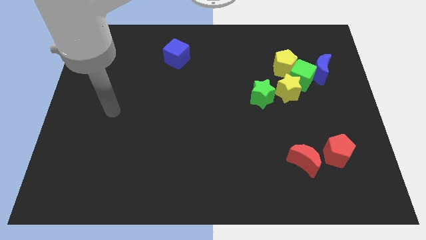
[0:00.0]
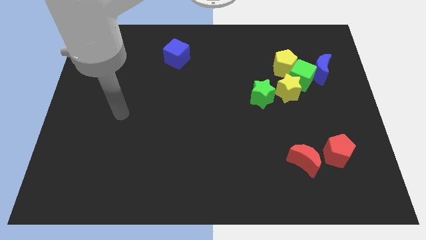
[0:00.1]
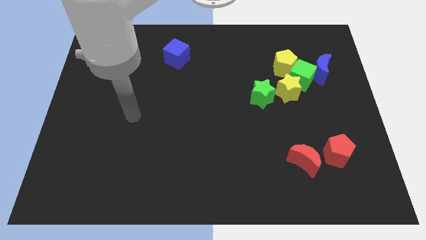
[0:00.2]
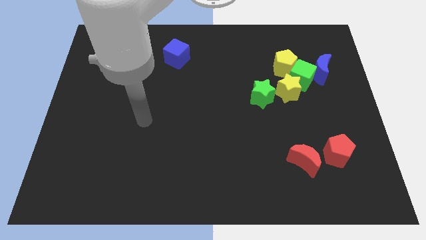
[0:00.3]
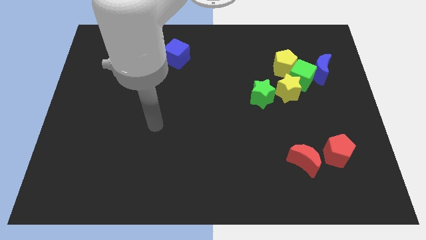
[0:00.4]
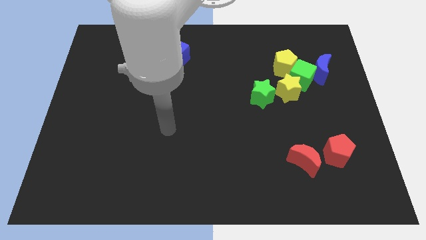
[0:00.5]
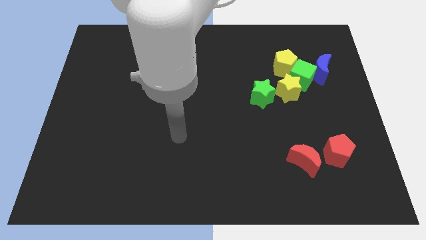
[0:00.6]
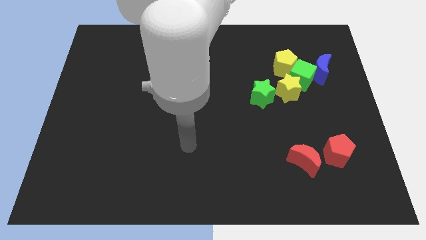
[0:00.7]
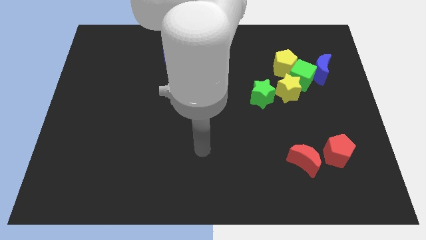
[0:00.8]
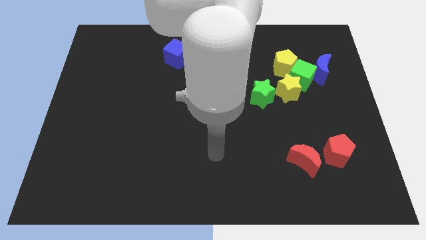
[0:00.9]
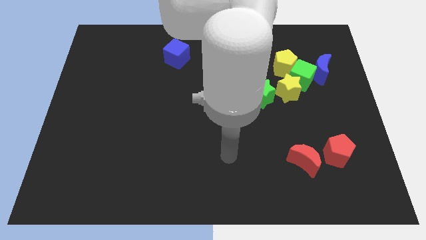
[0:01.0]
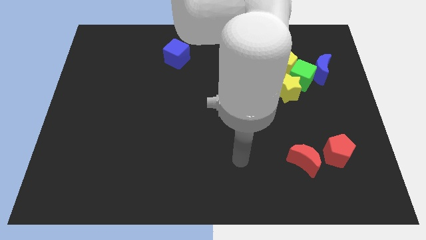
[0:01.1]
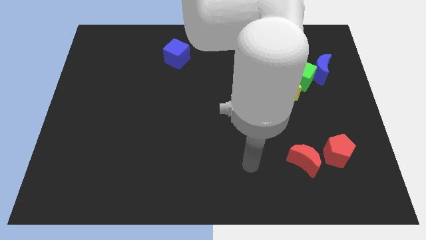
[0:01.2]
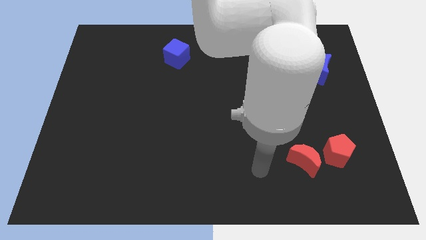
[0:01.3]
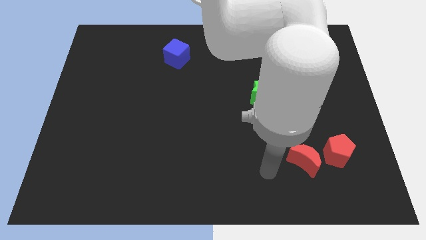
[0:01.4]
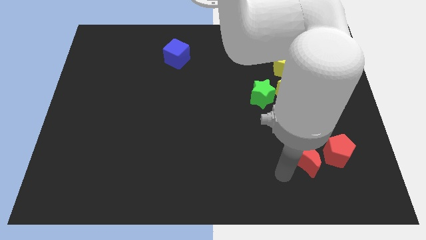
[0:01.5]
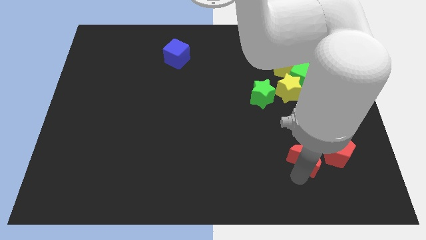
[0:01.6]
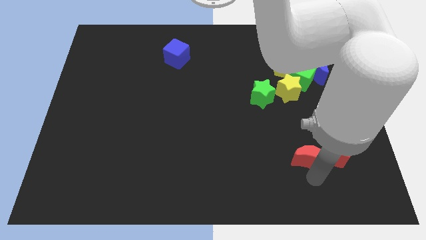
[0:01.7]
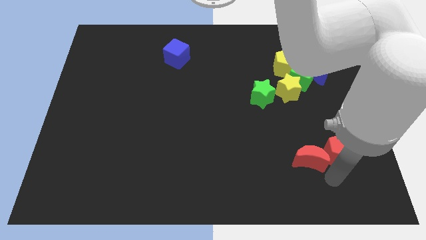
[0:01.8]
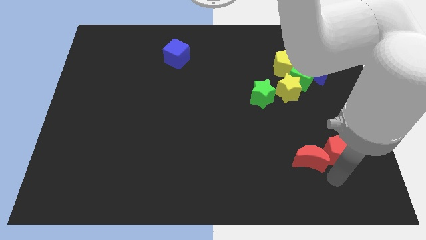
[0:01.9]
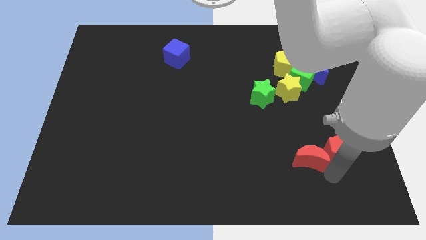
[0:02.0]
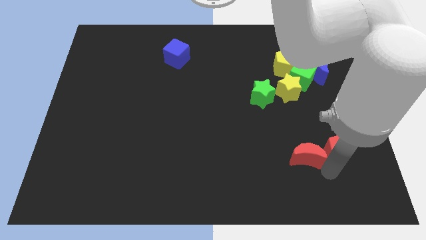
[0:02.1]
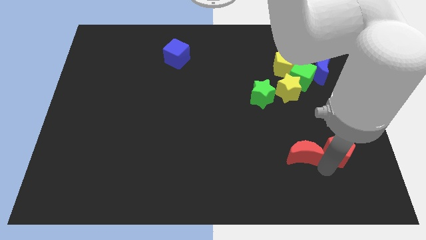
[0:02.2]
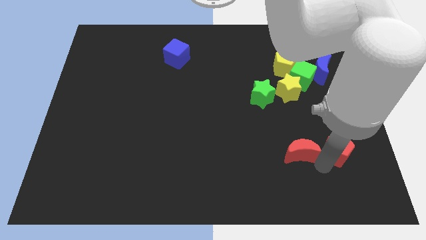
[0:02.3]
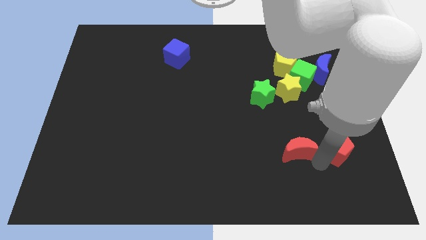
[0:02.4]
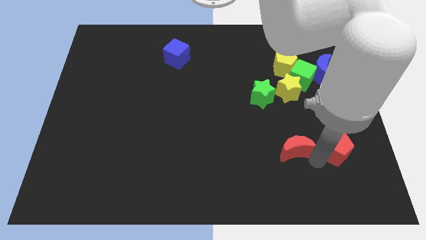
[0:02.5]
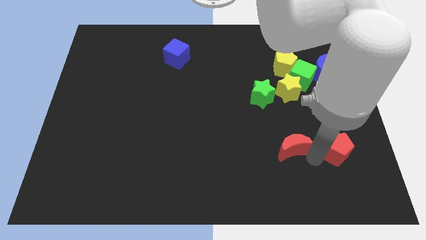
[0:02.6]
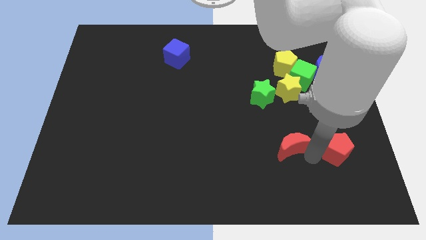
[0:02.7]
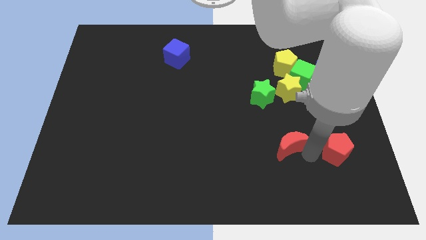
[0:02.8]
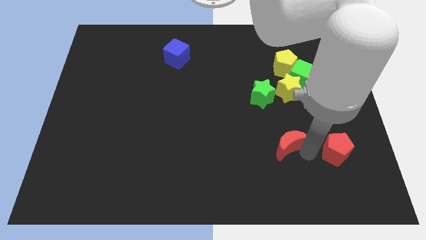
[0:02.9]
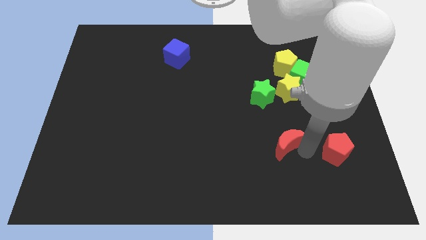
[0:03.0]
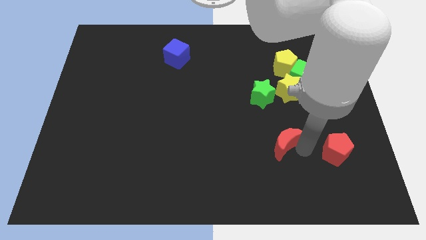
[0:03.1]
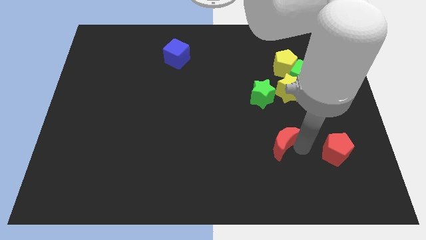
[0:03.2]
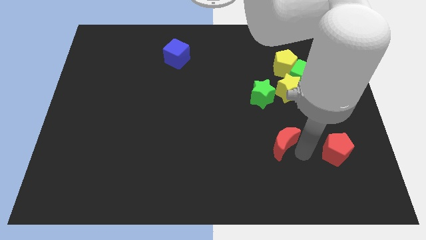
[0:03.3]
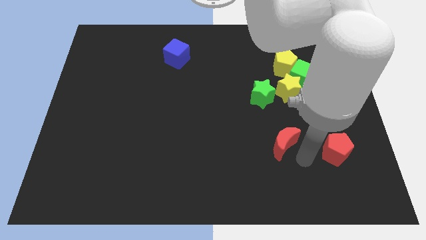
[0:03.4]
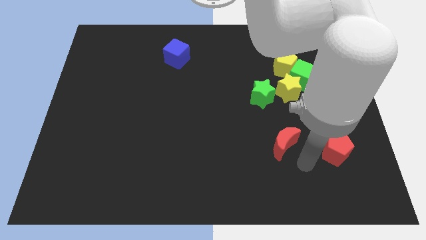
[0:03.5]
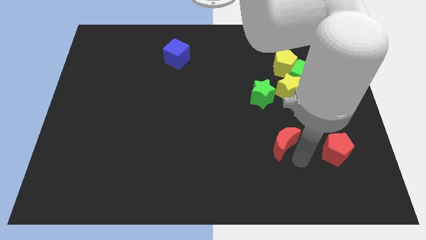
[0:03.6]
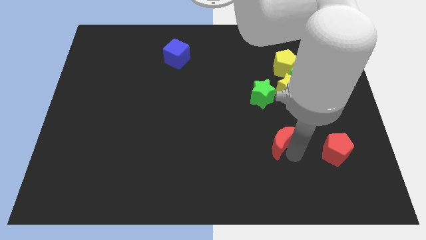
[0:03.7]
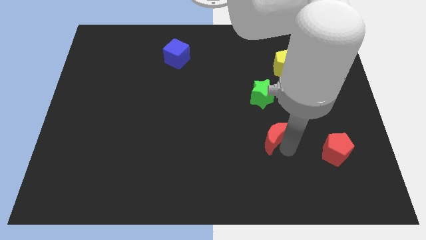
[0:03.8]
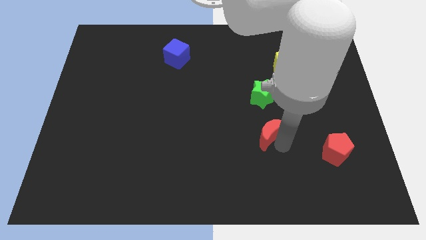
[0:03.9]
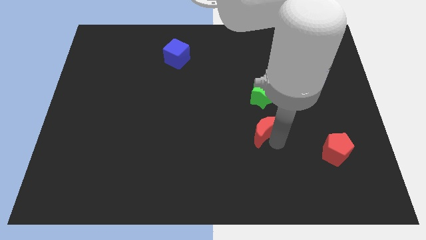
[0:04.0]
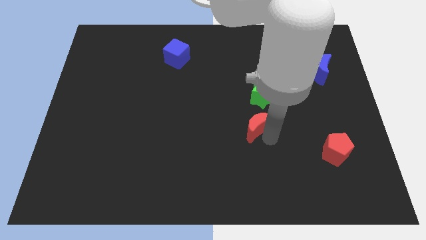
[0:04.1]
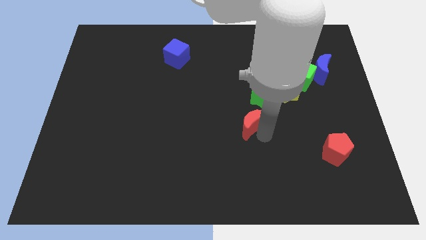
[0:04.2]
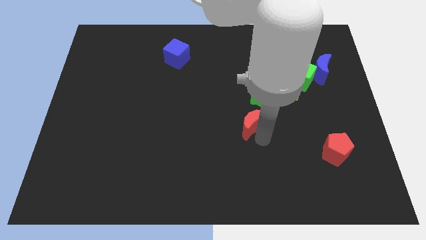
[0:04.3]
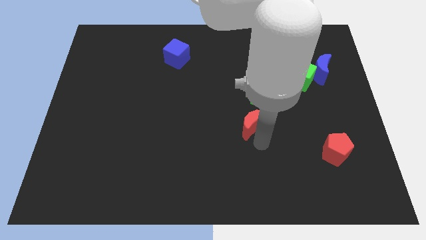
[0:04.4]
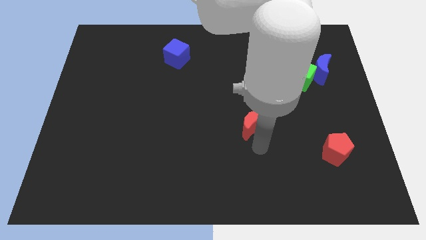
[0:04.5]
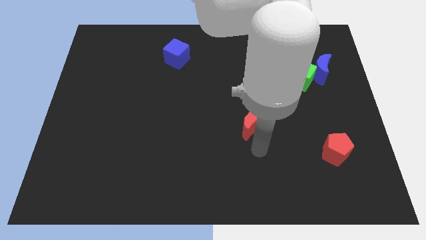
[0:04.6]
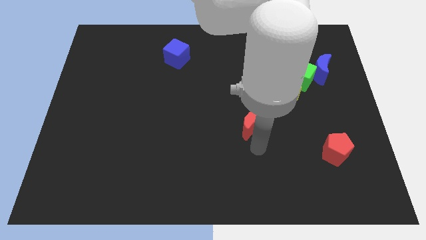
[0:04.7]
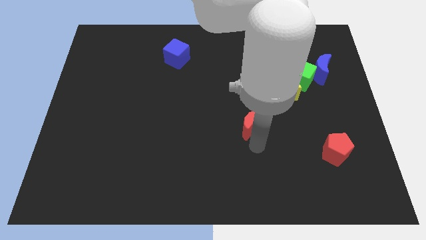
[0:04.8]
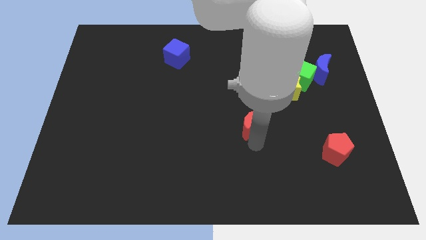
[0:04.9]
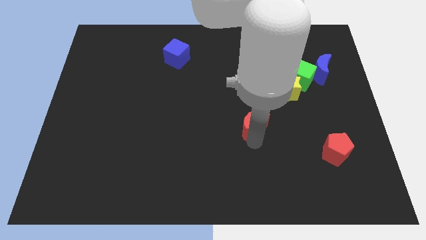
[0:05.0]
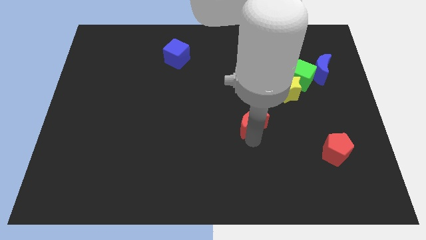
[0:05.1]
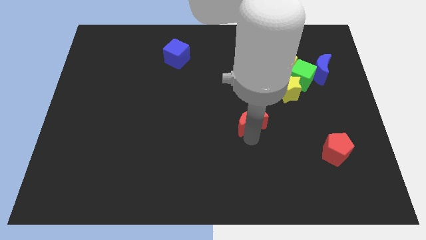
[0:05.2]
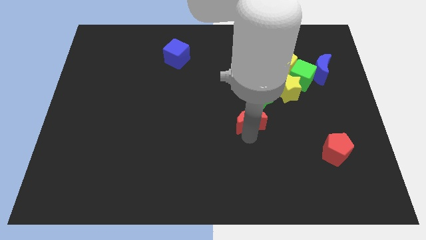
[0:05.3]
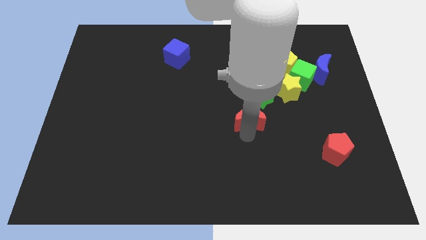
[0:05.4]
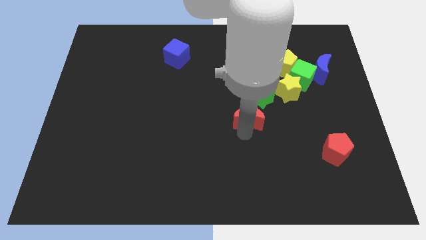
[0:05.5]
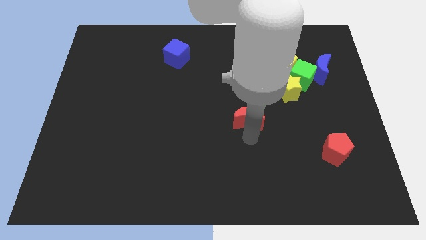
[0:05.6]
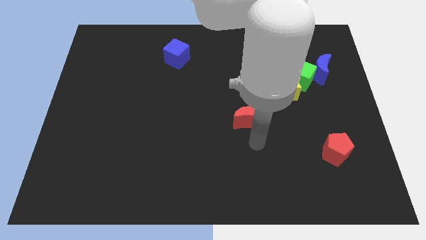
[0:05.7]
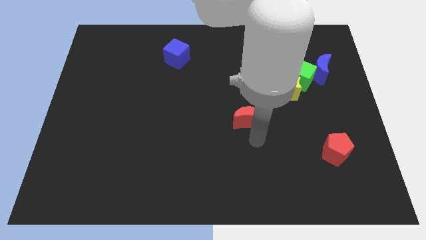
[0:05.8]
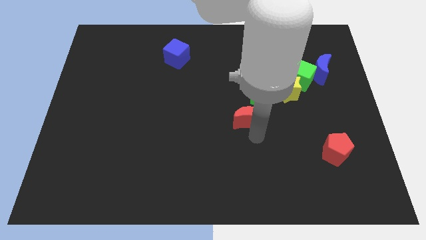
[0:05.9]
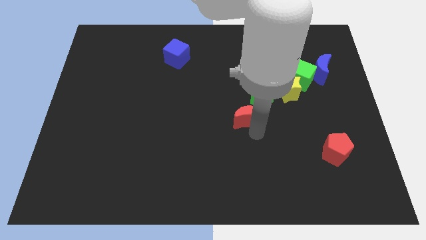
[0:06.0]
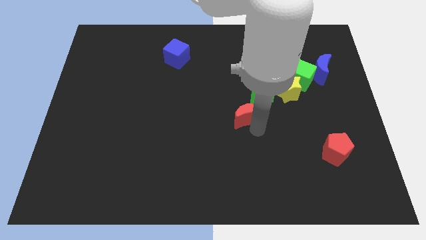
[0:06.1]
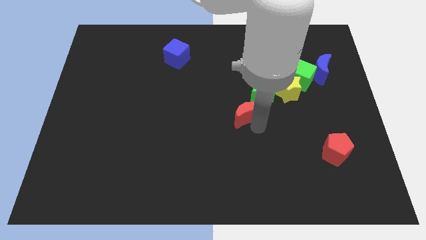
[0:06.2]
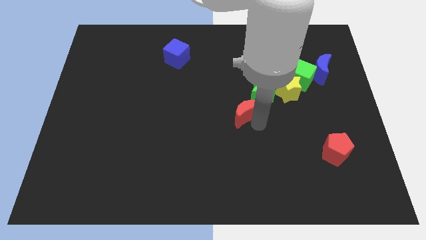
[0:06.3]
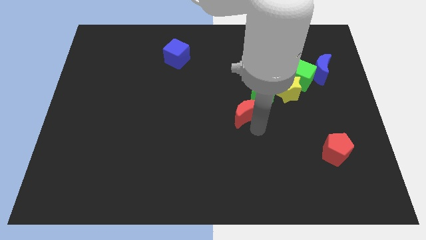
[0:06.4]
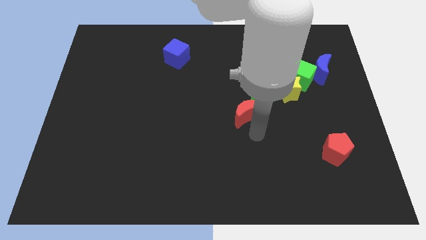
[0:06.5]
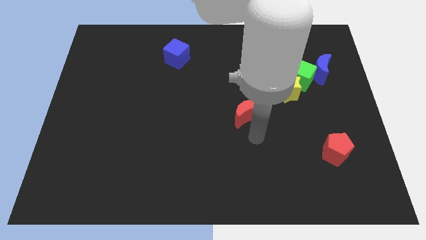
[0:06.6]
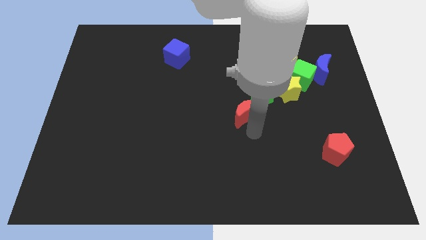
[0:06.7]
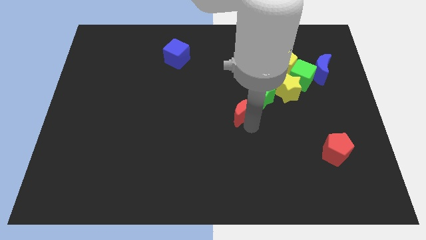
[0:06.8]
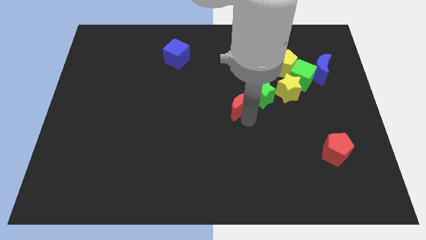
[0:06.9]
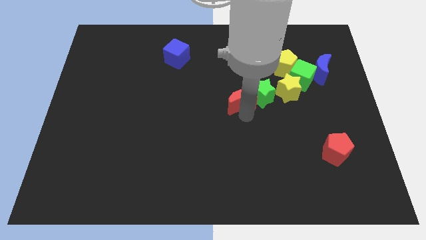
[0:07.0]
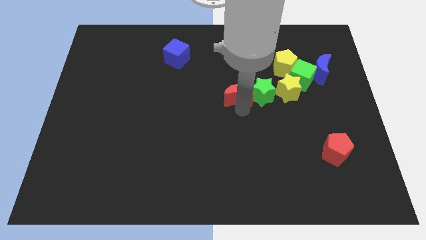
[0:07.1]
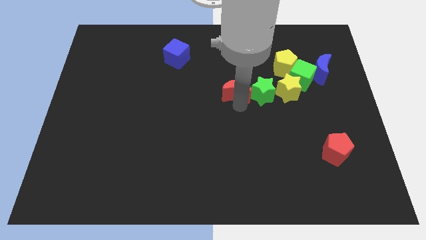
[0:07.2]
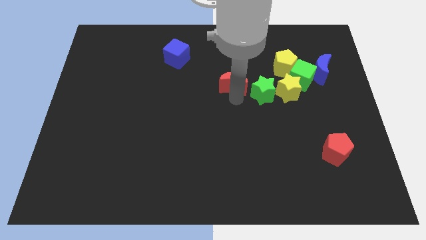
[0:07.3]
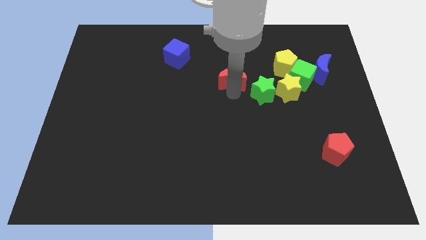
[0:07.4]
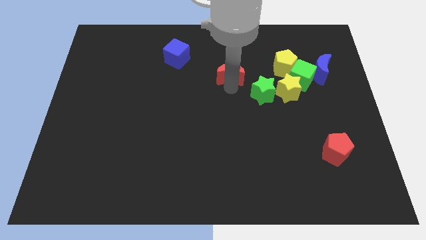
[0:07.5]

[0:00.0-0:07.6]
slide the red moon left of the yellow pentagon

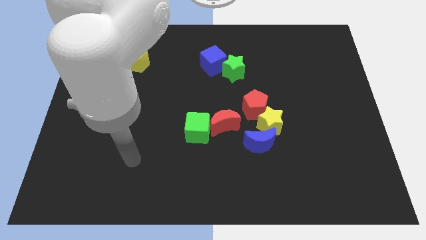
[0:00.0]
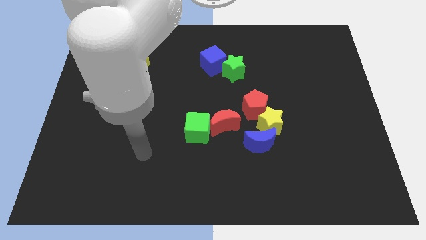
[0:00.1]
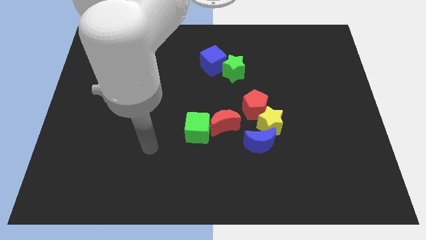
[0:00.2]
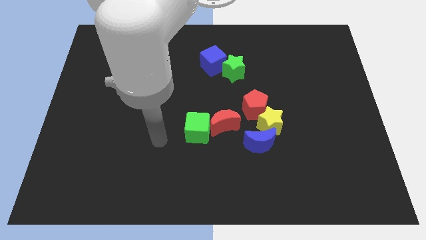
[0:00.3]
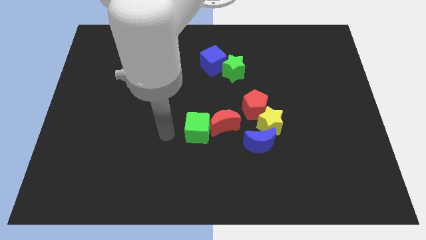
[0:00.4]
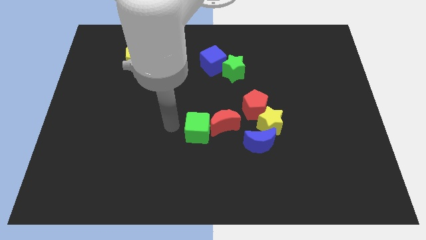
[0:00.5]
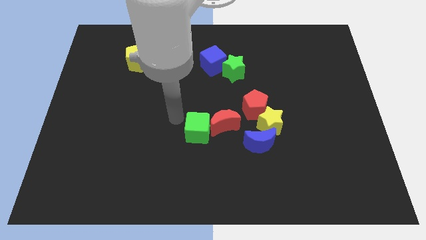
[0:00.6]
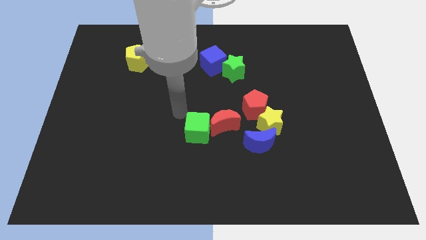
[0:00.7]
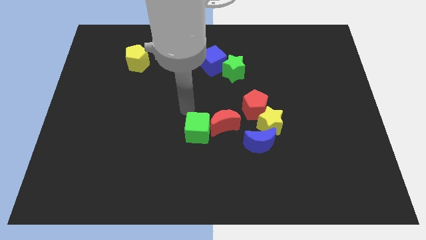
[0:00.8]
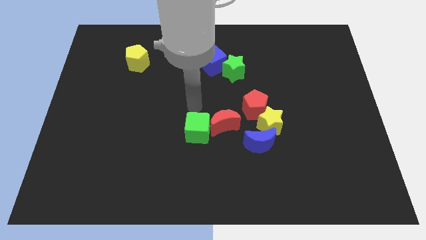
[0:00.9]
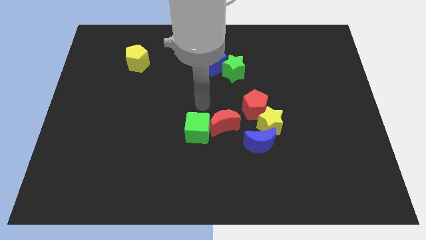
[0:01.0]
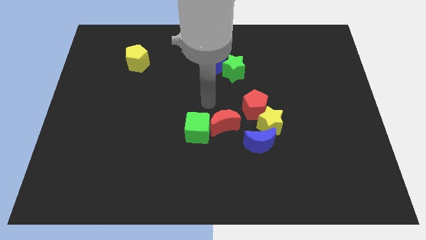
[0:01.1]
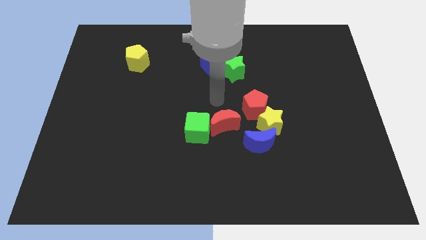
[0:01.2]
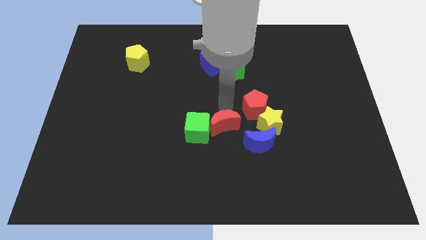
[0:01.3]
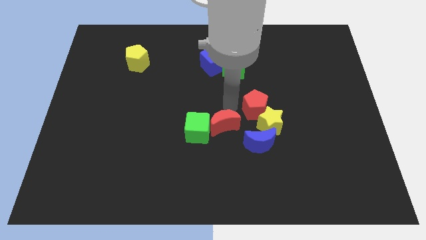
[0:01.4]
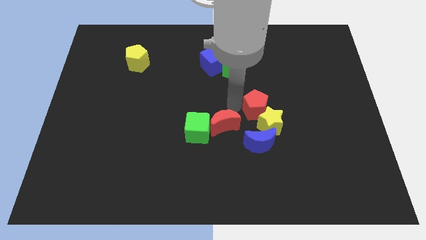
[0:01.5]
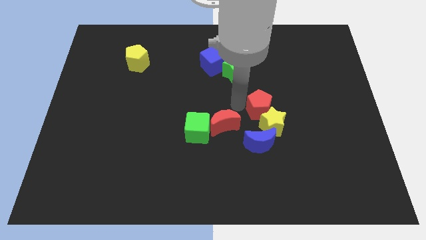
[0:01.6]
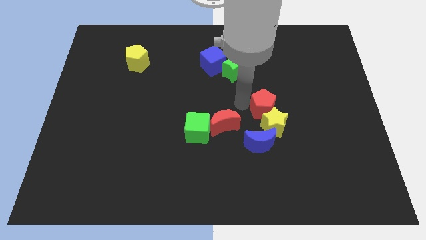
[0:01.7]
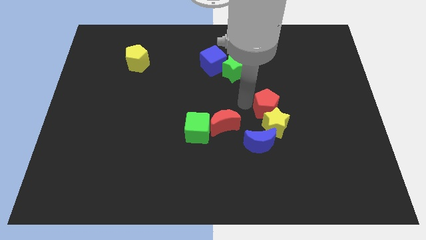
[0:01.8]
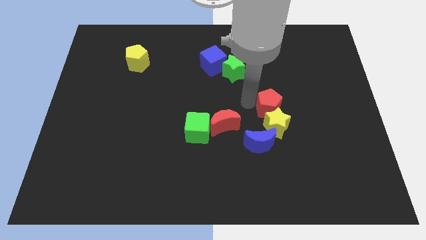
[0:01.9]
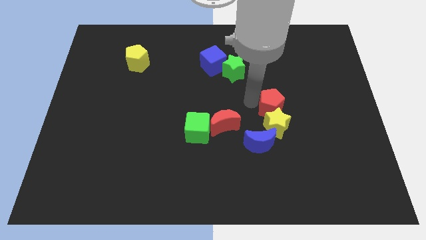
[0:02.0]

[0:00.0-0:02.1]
move the red pentagon diagonally up and to the right of the yellow star
